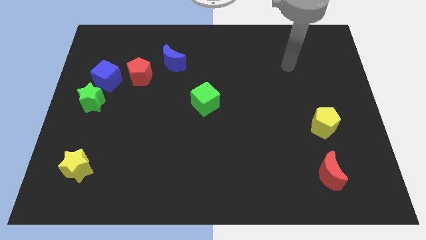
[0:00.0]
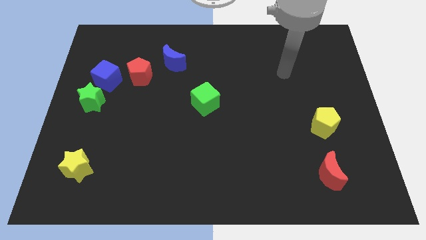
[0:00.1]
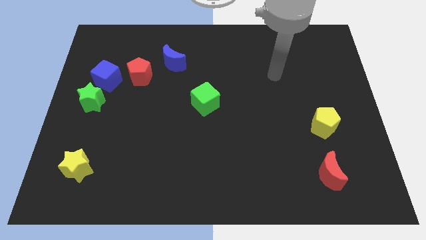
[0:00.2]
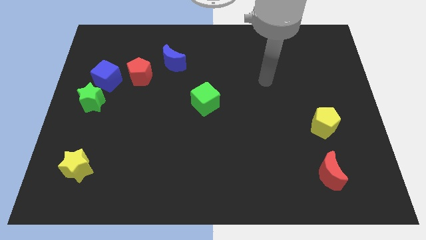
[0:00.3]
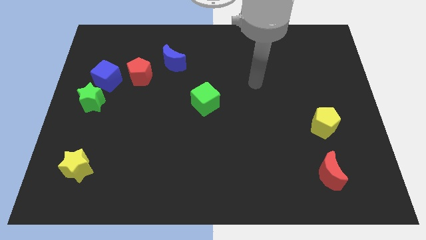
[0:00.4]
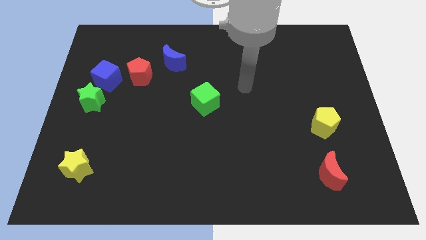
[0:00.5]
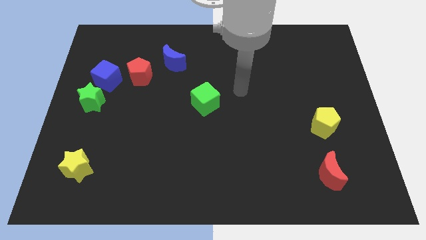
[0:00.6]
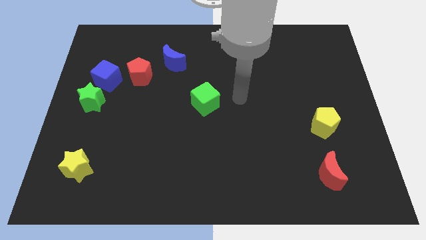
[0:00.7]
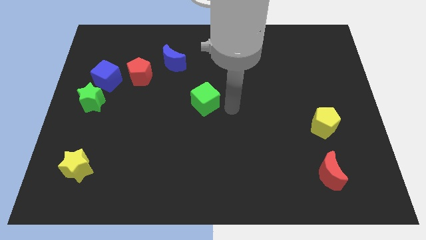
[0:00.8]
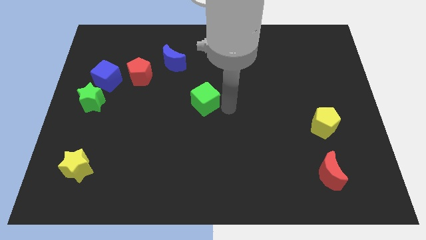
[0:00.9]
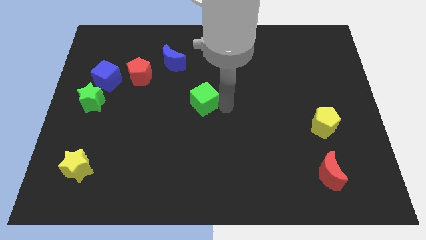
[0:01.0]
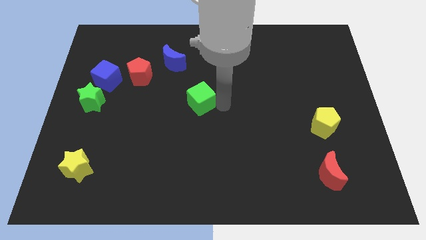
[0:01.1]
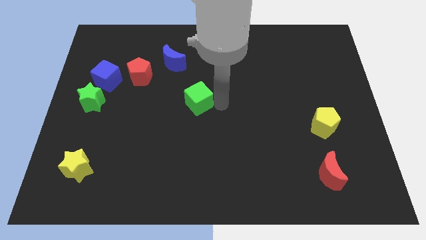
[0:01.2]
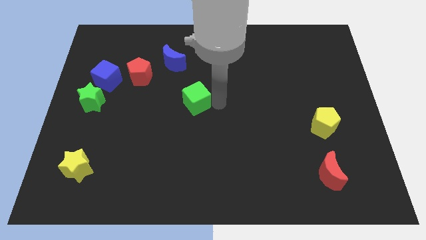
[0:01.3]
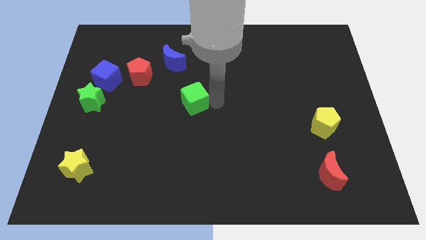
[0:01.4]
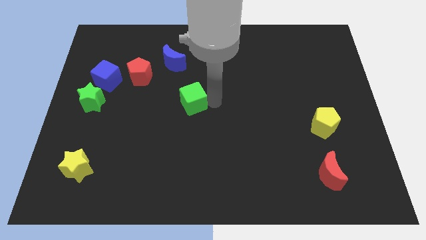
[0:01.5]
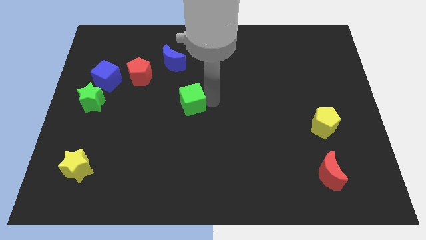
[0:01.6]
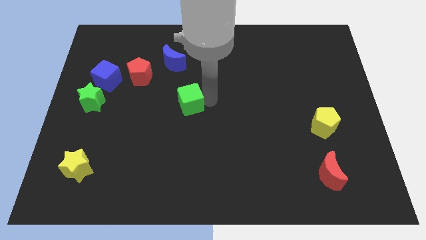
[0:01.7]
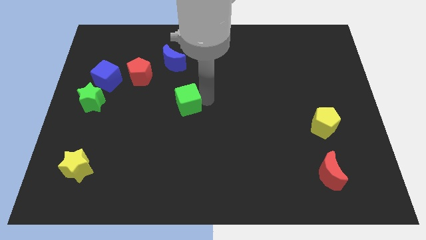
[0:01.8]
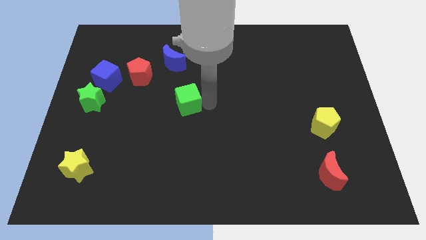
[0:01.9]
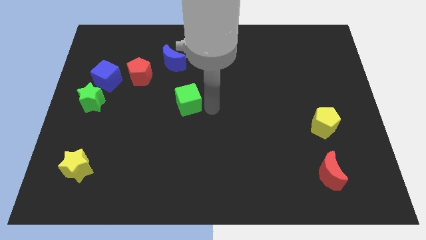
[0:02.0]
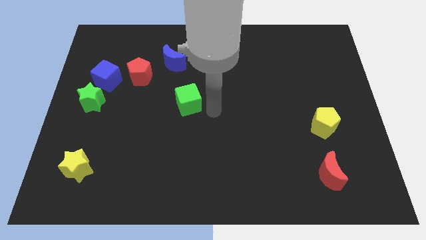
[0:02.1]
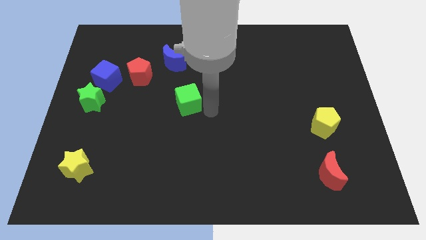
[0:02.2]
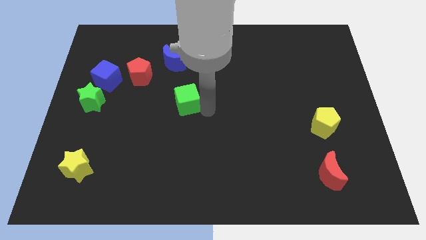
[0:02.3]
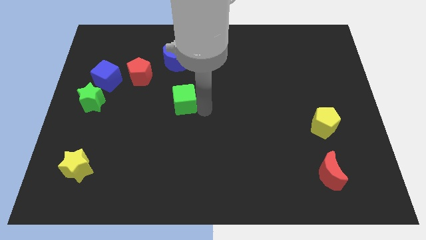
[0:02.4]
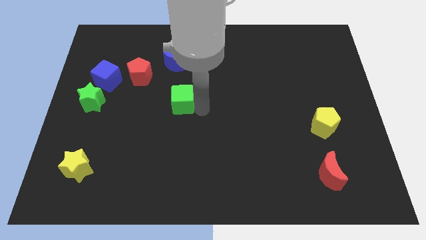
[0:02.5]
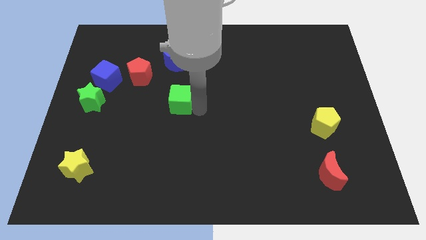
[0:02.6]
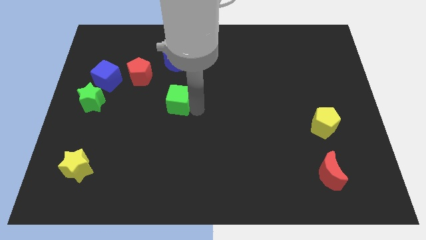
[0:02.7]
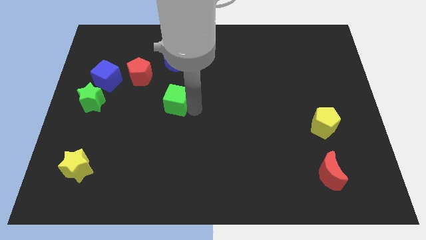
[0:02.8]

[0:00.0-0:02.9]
slightly slide the green cube to the left

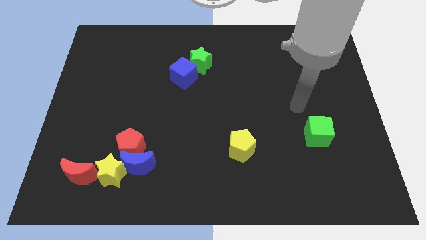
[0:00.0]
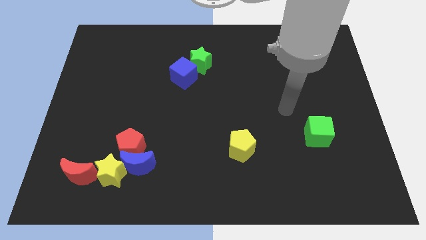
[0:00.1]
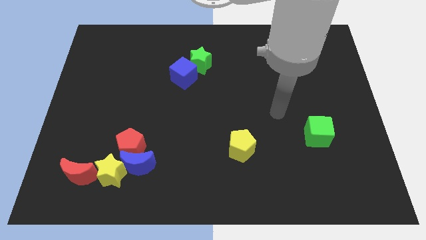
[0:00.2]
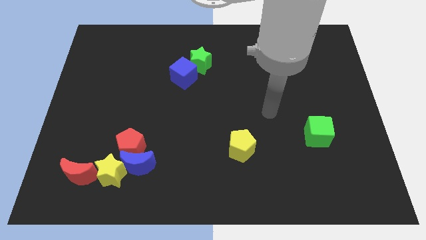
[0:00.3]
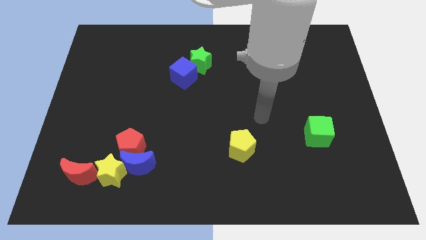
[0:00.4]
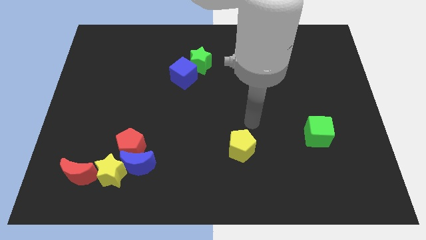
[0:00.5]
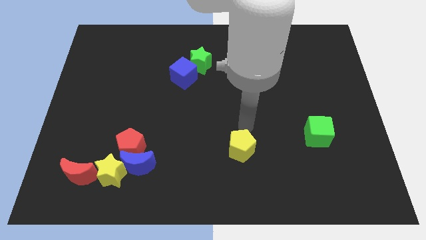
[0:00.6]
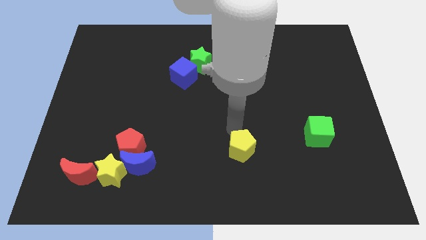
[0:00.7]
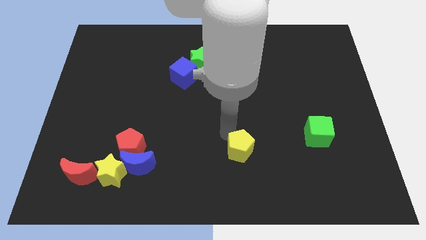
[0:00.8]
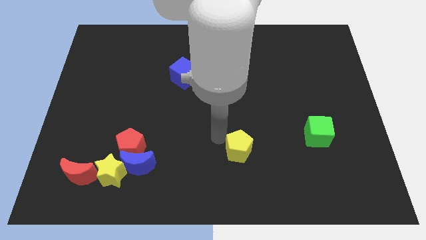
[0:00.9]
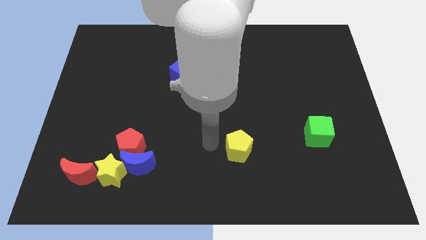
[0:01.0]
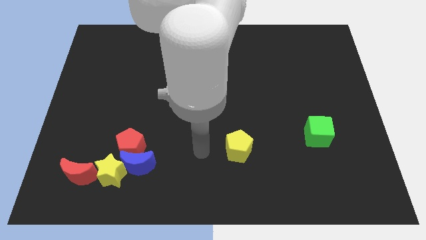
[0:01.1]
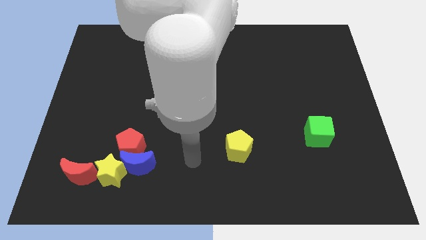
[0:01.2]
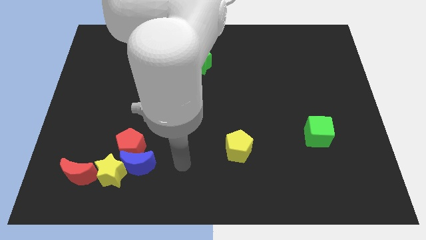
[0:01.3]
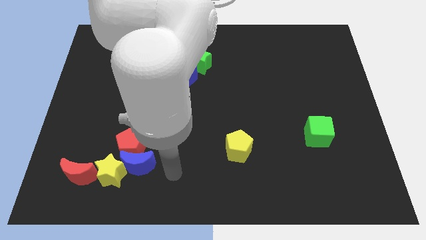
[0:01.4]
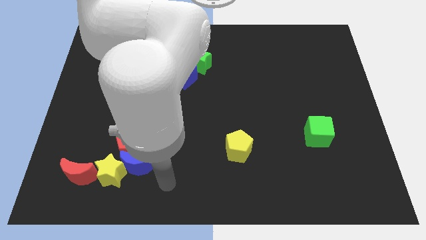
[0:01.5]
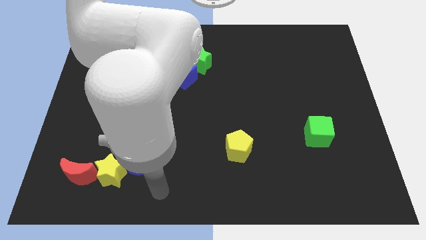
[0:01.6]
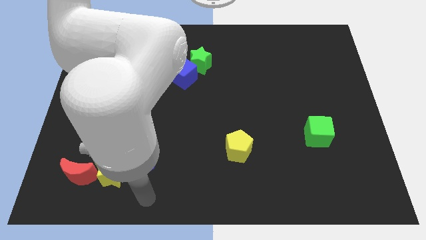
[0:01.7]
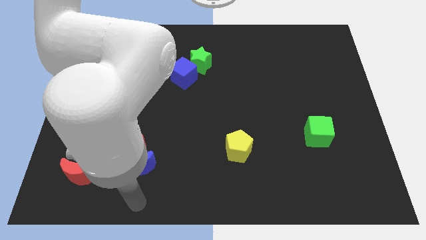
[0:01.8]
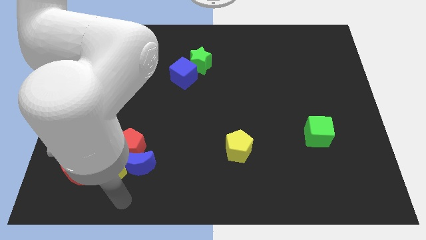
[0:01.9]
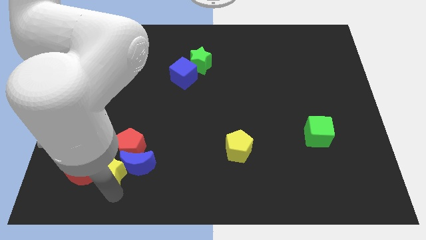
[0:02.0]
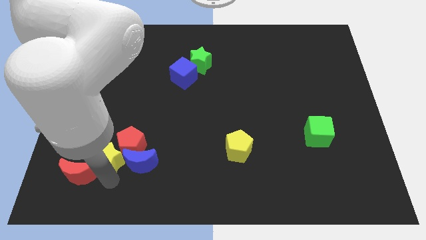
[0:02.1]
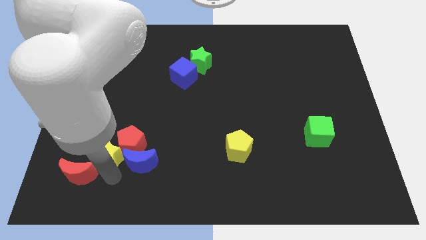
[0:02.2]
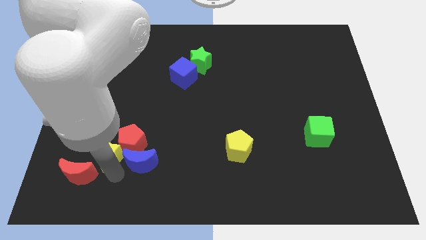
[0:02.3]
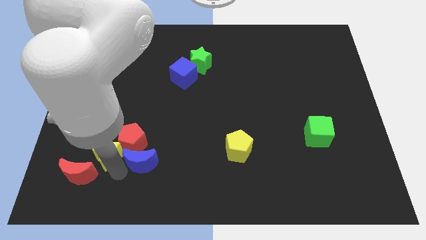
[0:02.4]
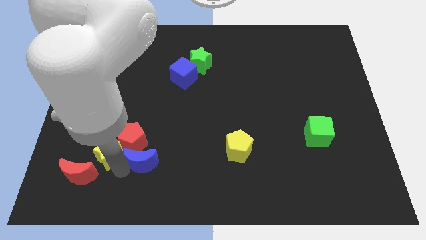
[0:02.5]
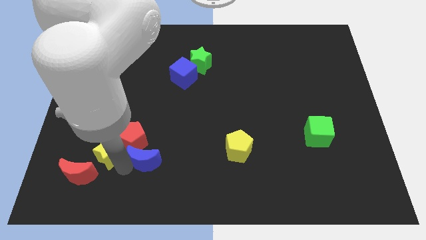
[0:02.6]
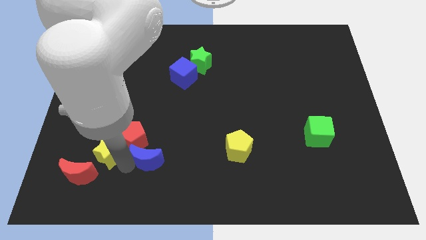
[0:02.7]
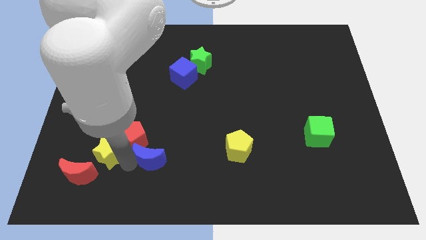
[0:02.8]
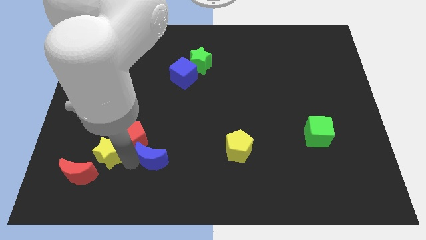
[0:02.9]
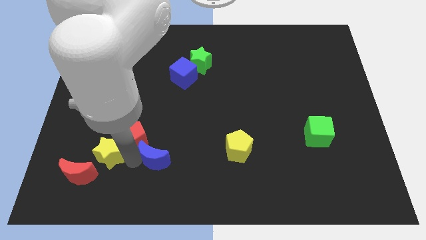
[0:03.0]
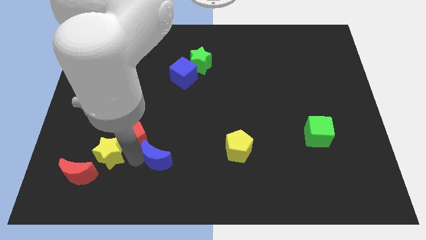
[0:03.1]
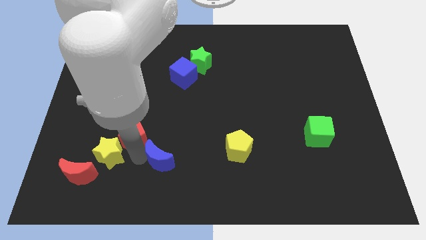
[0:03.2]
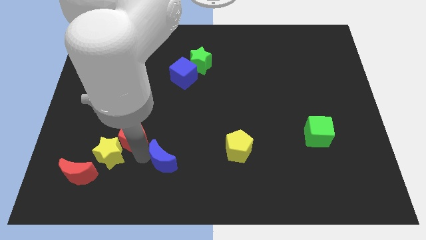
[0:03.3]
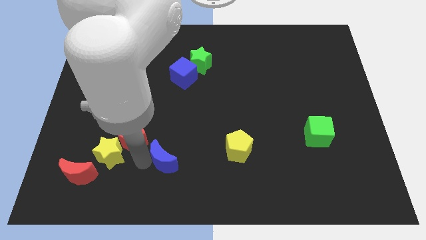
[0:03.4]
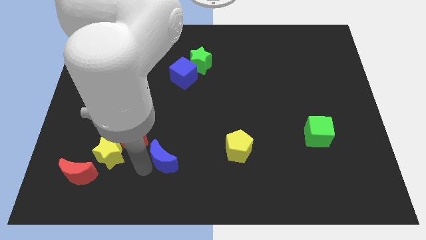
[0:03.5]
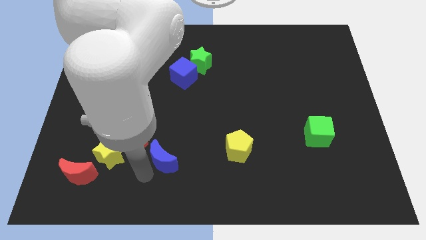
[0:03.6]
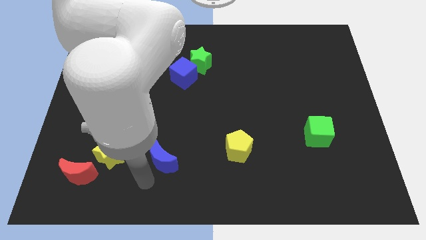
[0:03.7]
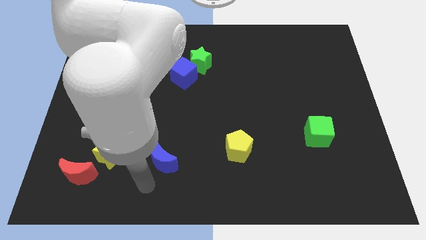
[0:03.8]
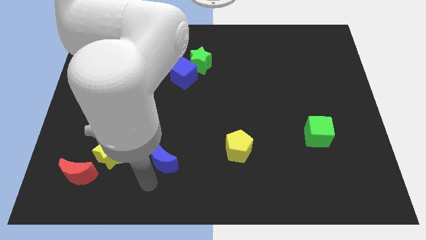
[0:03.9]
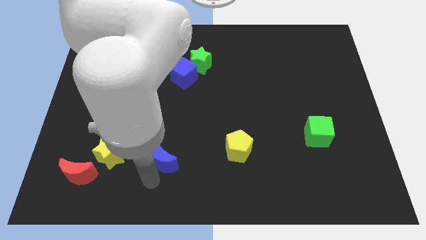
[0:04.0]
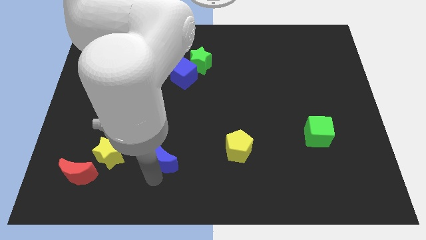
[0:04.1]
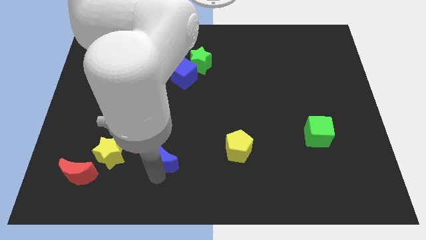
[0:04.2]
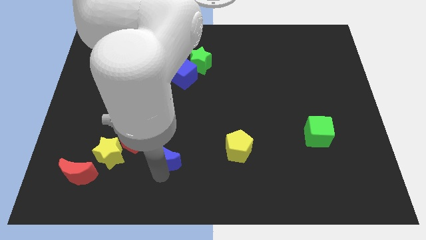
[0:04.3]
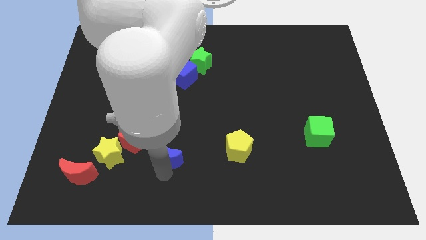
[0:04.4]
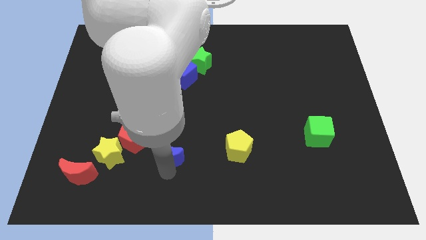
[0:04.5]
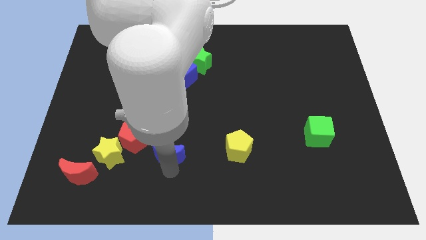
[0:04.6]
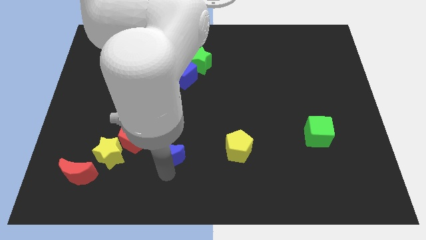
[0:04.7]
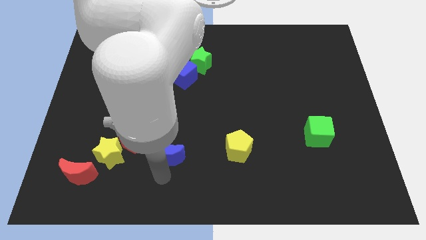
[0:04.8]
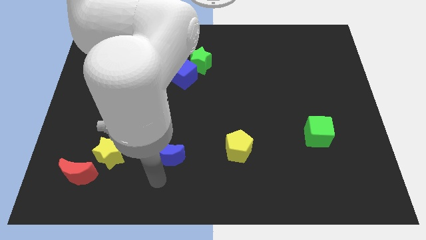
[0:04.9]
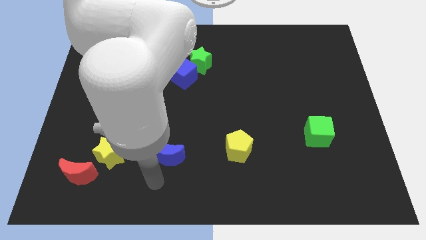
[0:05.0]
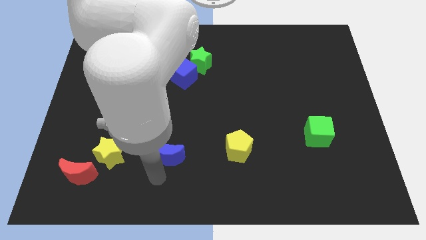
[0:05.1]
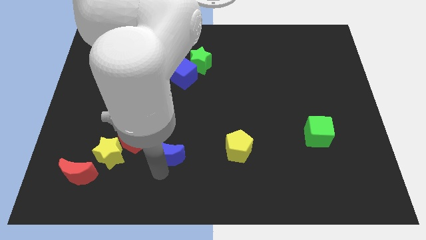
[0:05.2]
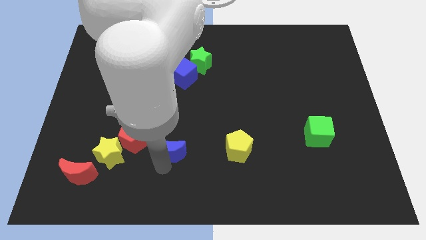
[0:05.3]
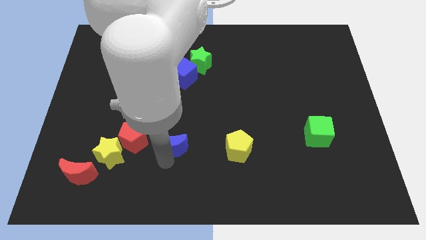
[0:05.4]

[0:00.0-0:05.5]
push the blue moon a bit diagonally up and right
